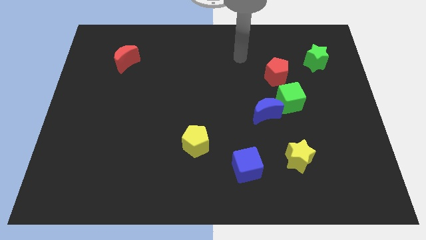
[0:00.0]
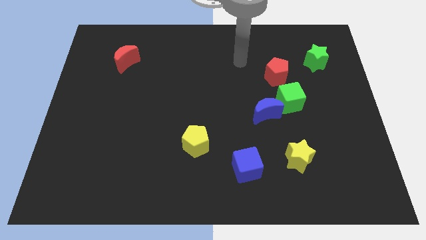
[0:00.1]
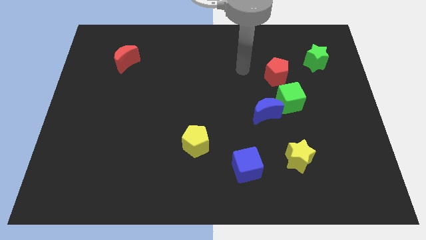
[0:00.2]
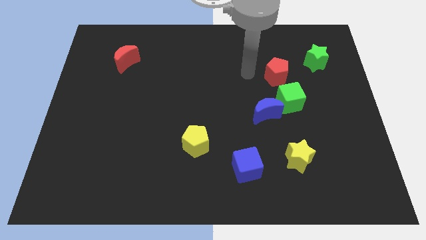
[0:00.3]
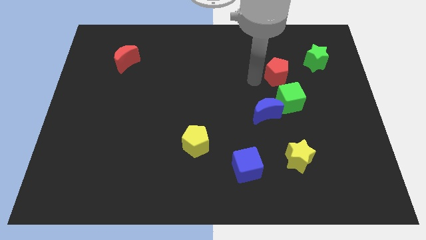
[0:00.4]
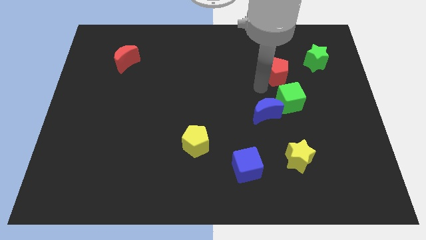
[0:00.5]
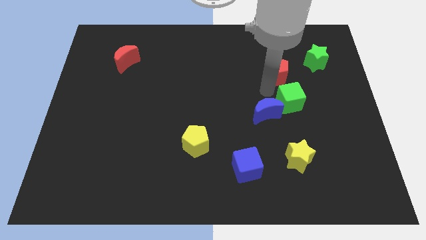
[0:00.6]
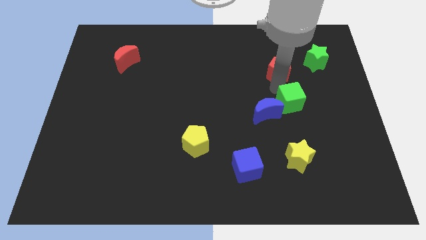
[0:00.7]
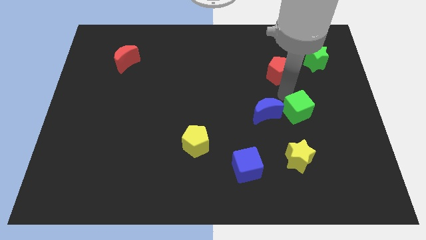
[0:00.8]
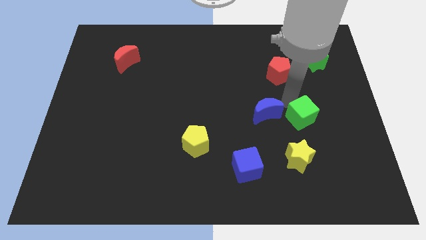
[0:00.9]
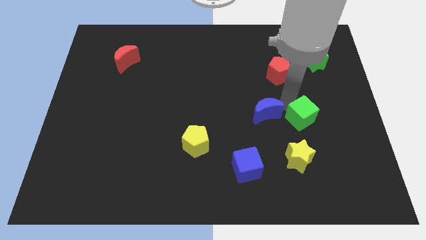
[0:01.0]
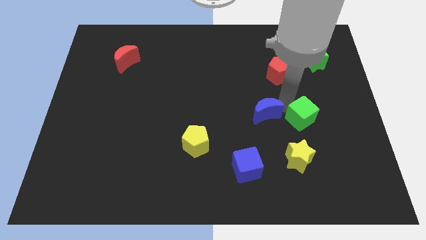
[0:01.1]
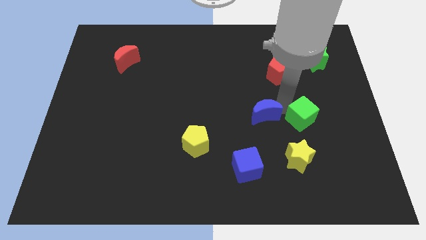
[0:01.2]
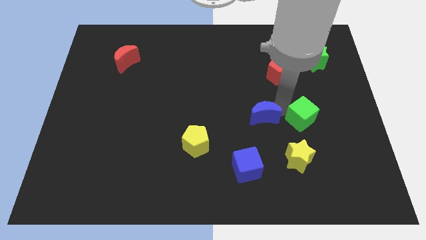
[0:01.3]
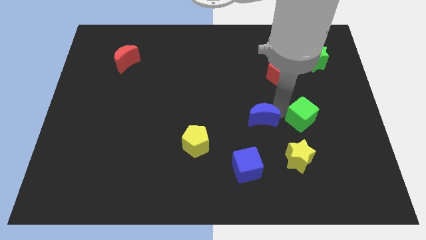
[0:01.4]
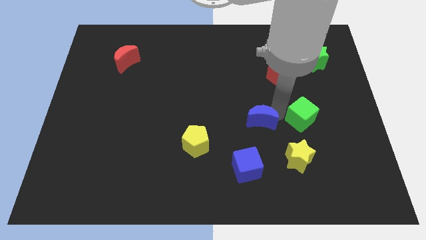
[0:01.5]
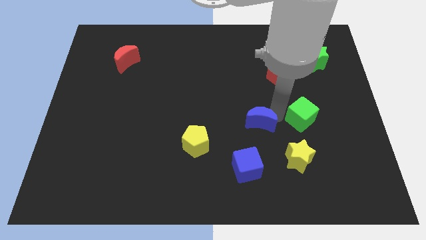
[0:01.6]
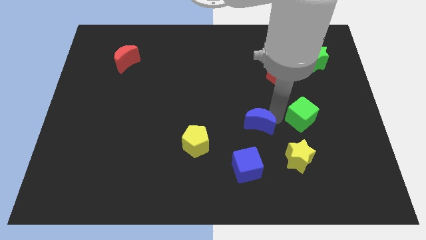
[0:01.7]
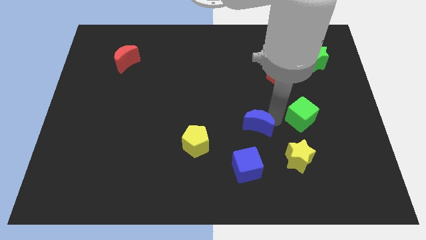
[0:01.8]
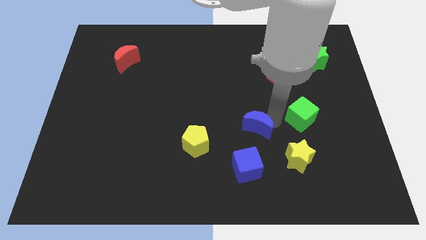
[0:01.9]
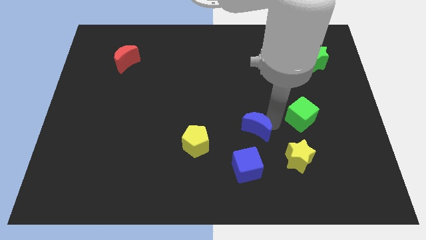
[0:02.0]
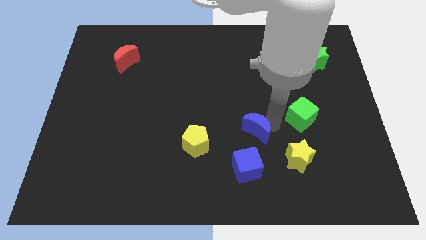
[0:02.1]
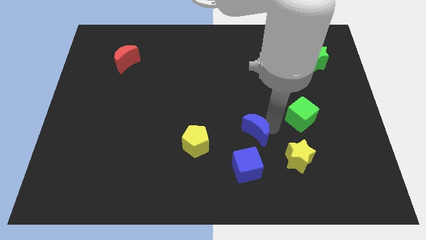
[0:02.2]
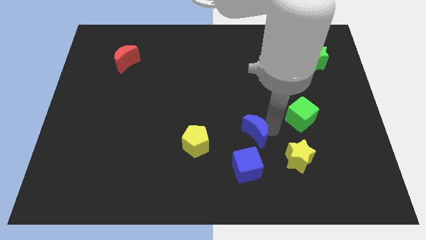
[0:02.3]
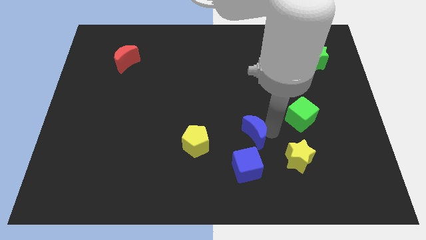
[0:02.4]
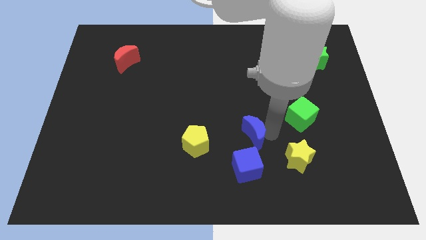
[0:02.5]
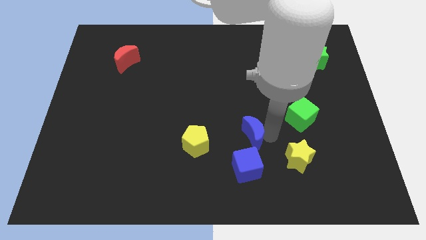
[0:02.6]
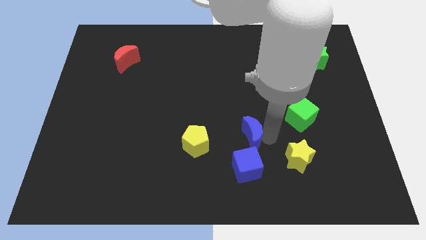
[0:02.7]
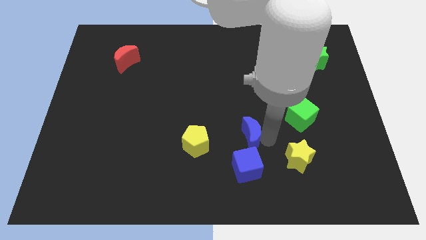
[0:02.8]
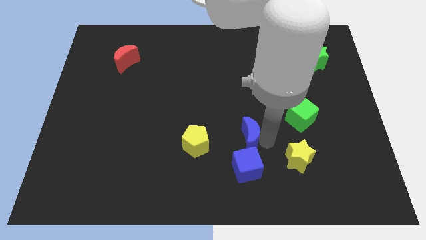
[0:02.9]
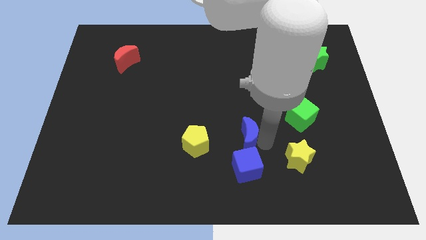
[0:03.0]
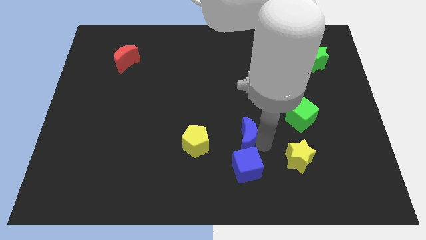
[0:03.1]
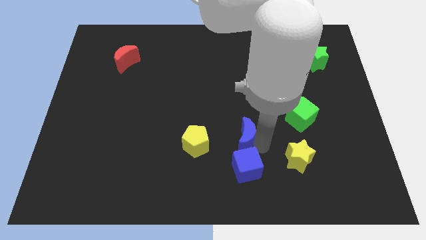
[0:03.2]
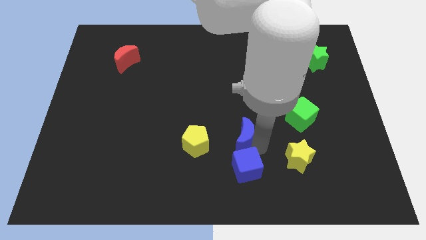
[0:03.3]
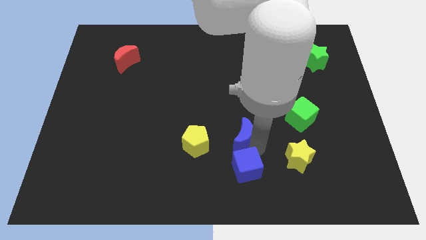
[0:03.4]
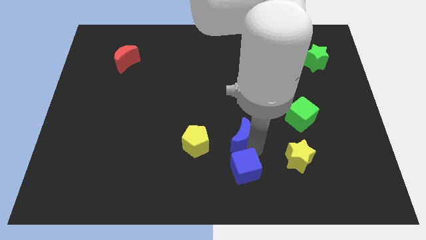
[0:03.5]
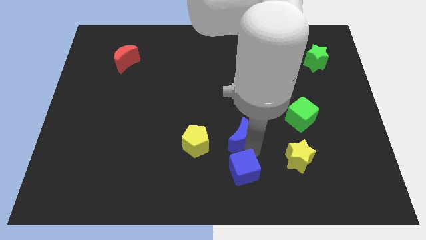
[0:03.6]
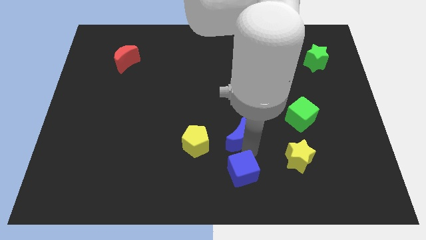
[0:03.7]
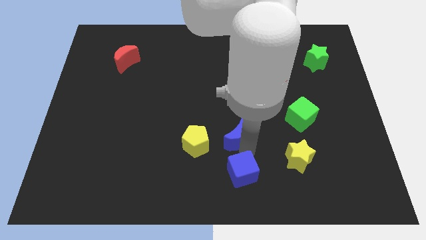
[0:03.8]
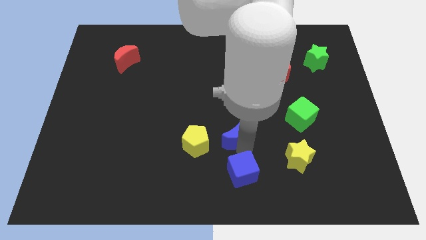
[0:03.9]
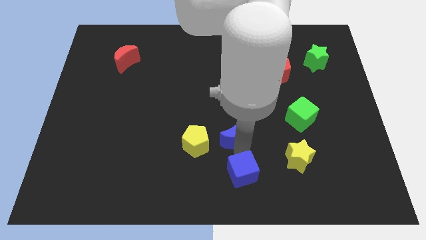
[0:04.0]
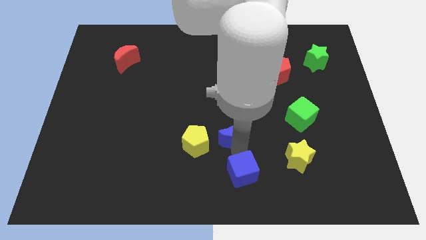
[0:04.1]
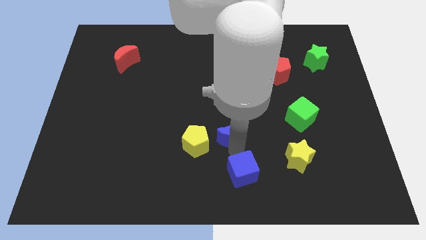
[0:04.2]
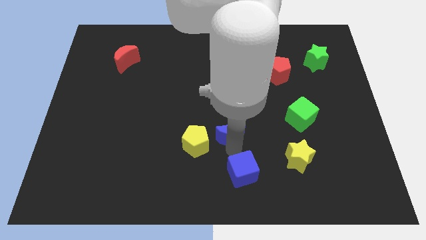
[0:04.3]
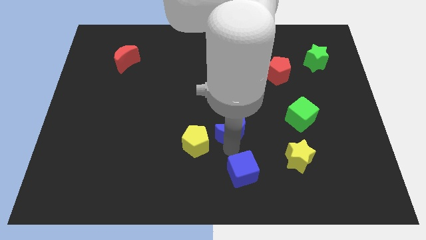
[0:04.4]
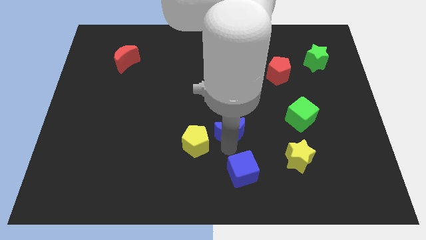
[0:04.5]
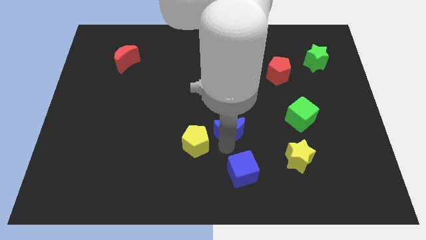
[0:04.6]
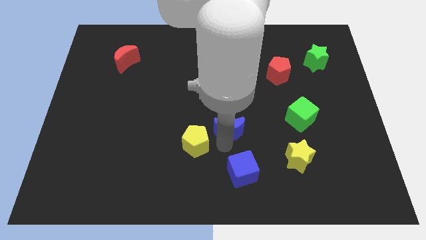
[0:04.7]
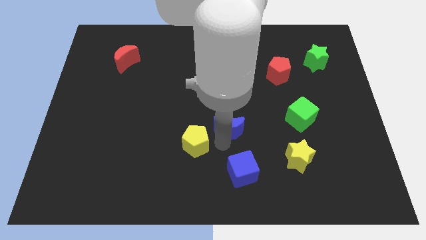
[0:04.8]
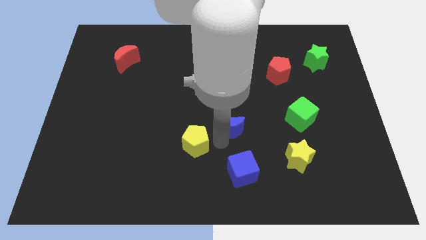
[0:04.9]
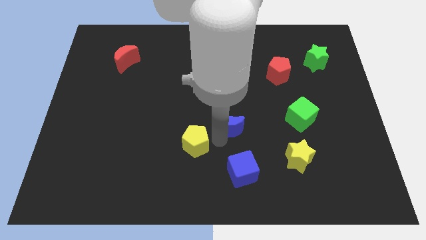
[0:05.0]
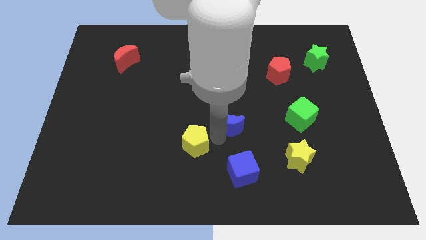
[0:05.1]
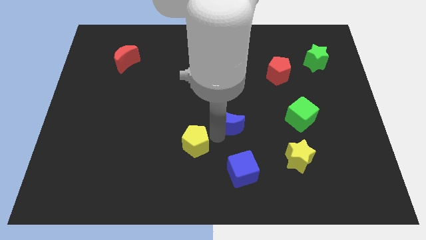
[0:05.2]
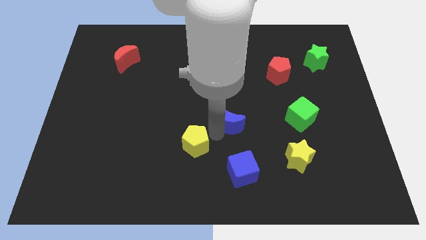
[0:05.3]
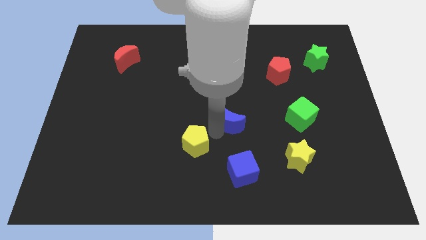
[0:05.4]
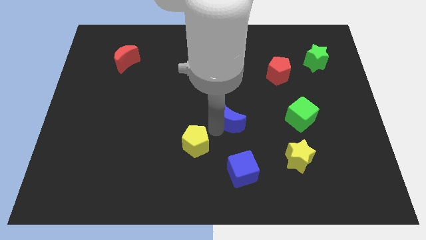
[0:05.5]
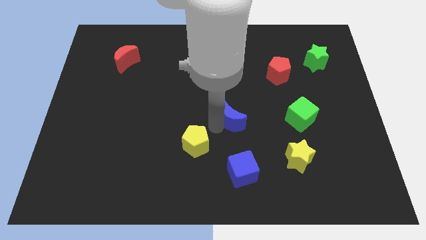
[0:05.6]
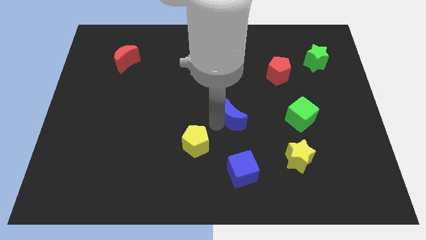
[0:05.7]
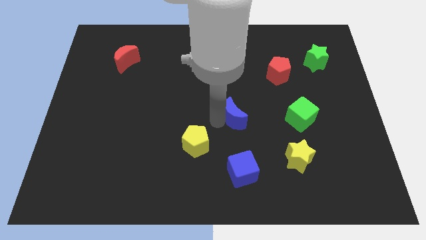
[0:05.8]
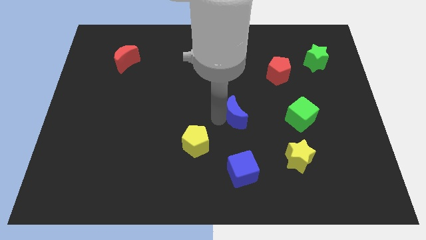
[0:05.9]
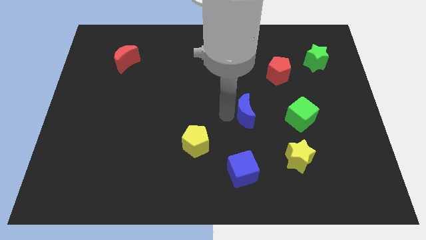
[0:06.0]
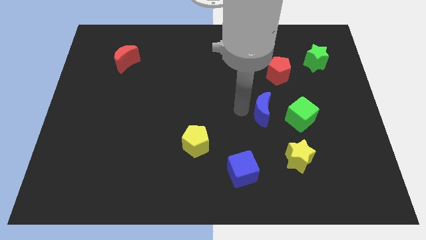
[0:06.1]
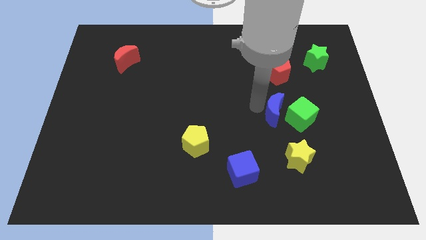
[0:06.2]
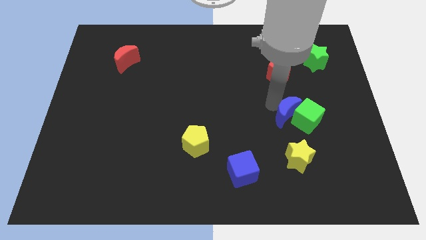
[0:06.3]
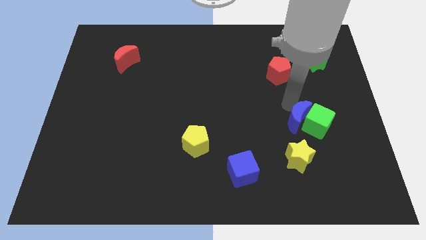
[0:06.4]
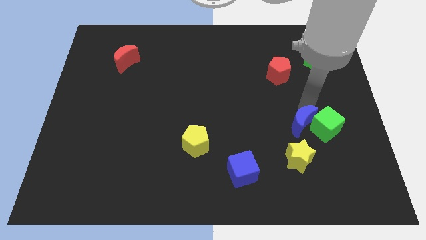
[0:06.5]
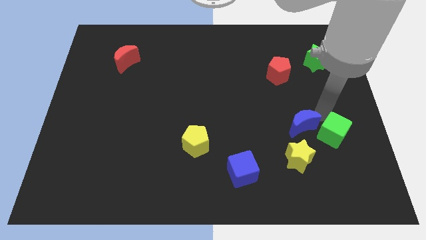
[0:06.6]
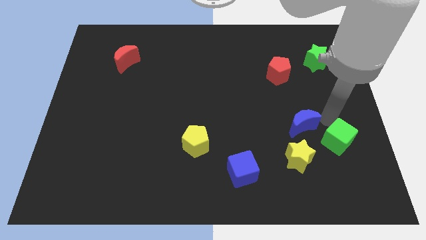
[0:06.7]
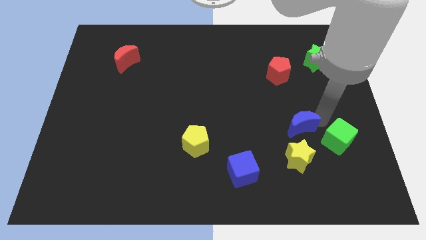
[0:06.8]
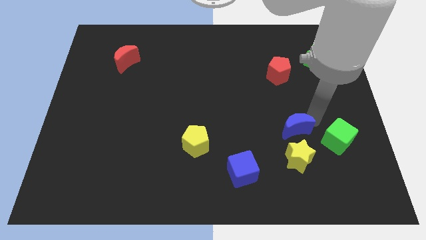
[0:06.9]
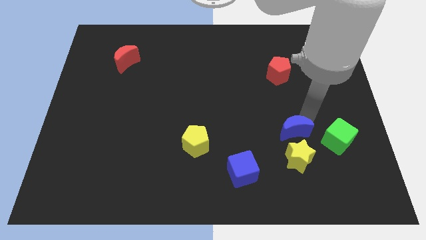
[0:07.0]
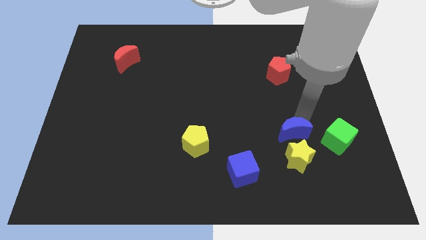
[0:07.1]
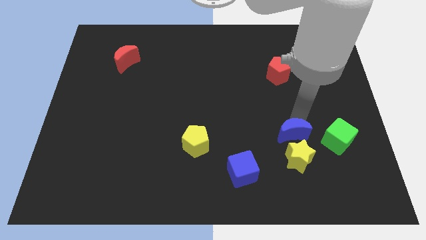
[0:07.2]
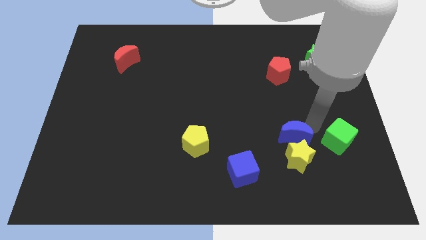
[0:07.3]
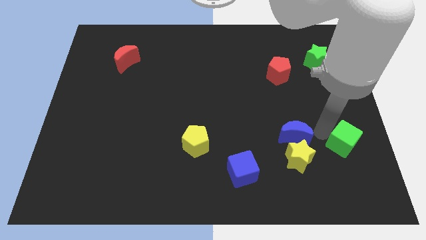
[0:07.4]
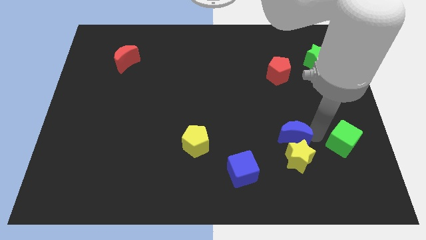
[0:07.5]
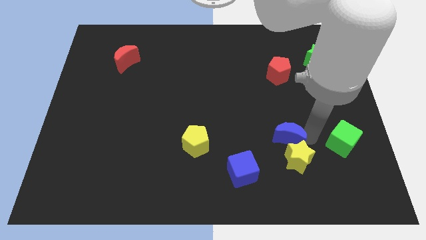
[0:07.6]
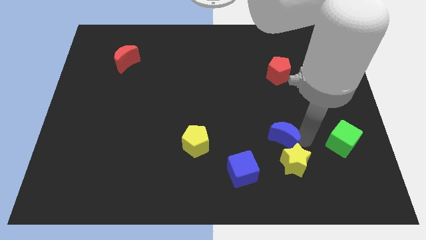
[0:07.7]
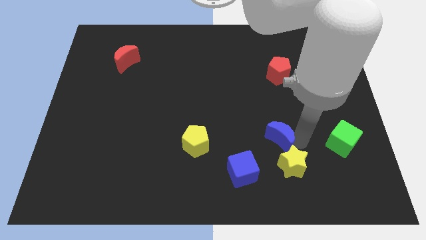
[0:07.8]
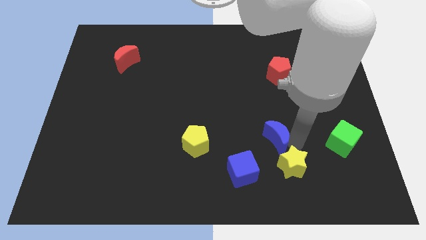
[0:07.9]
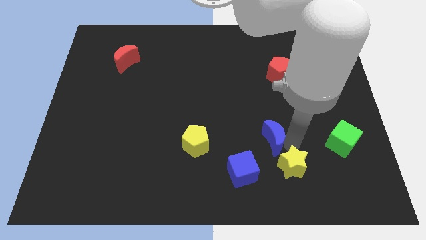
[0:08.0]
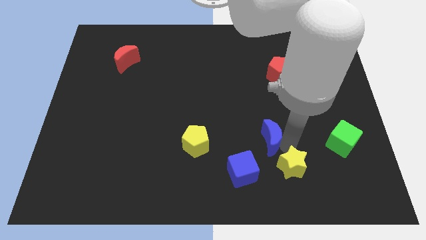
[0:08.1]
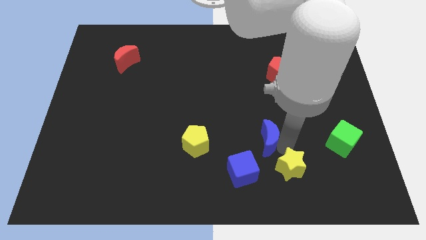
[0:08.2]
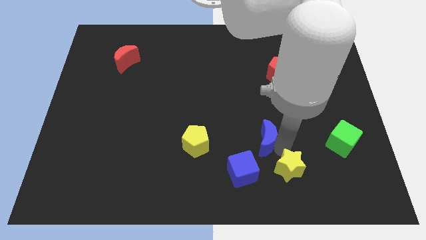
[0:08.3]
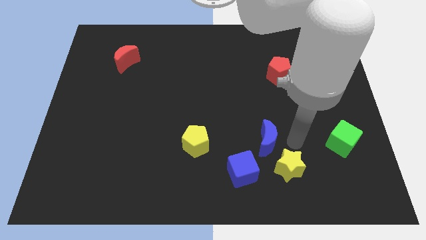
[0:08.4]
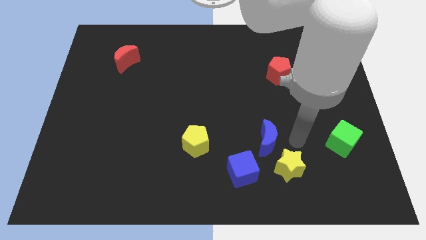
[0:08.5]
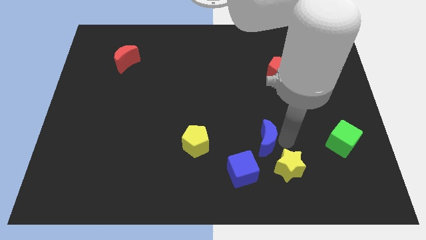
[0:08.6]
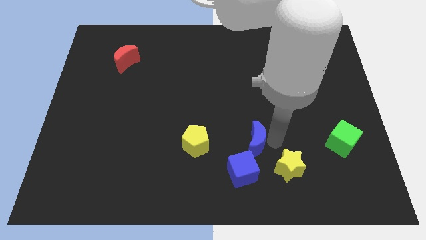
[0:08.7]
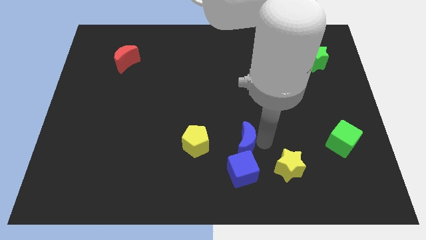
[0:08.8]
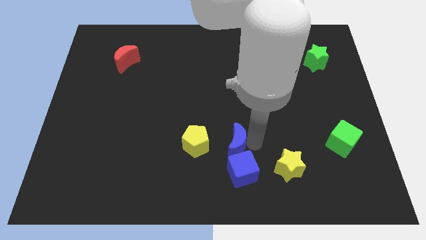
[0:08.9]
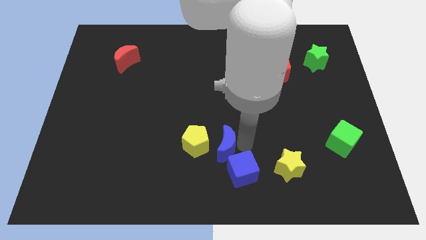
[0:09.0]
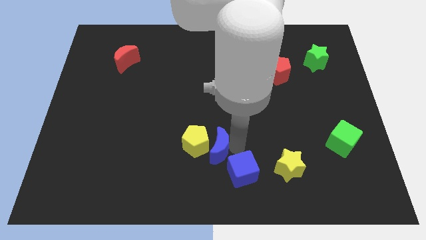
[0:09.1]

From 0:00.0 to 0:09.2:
put the blue moon next to the yellow pentagon
